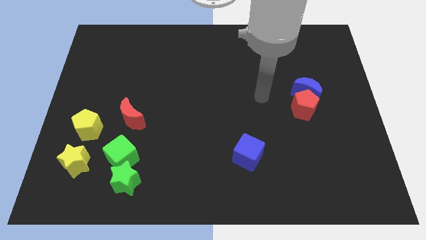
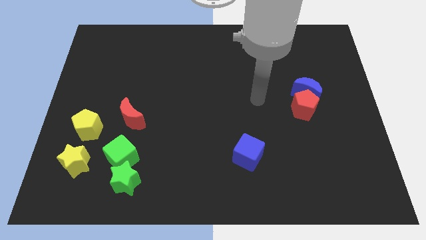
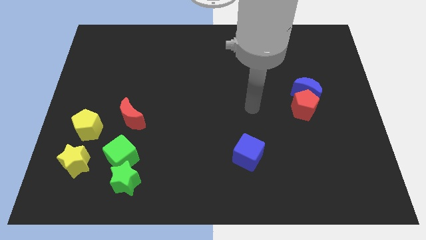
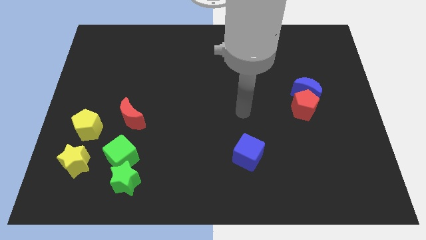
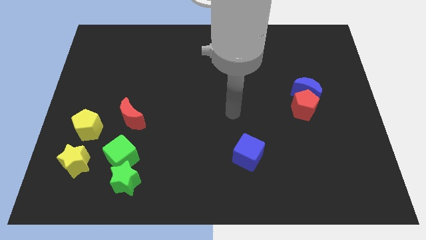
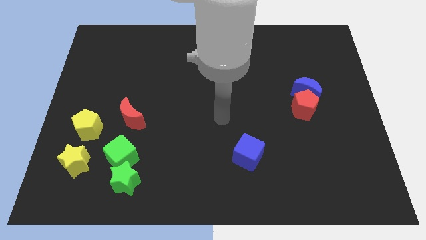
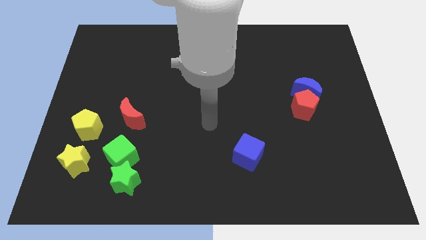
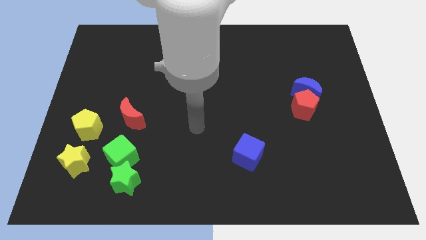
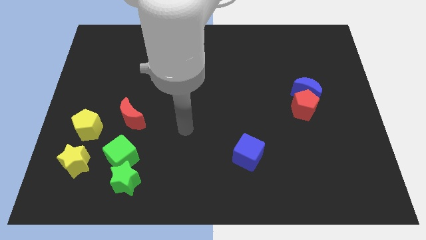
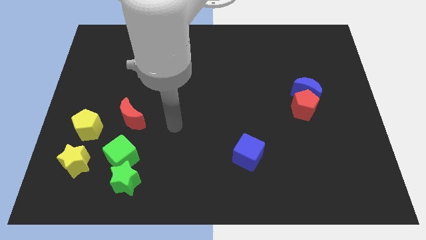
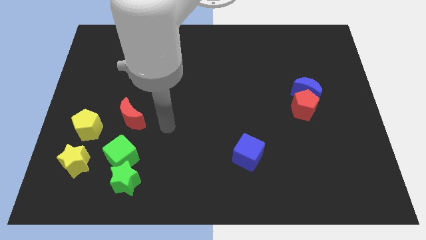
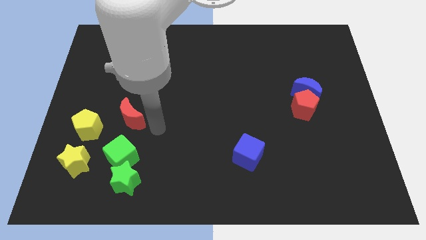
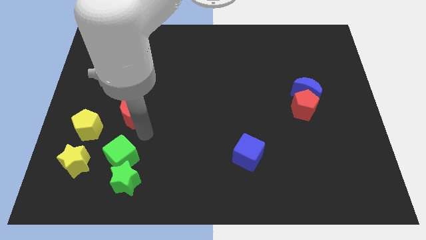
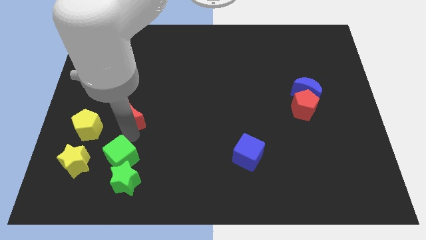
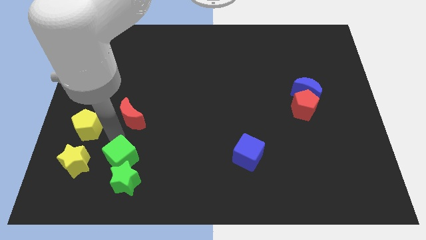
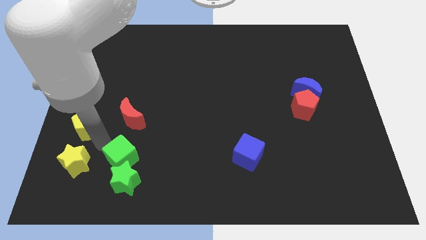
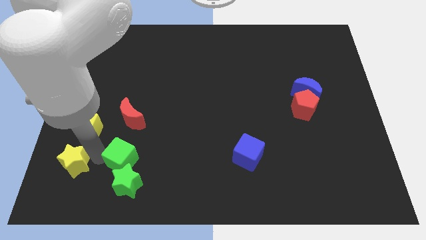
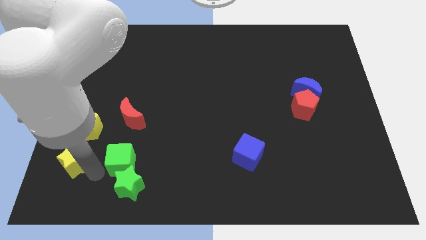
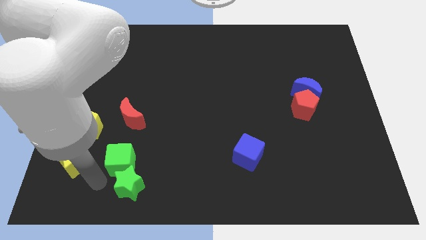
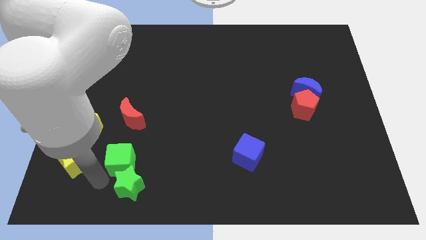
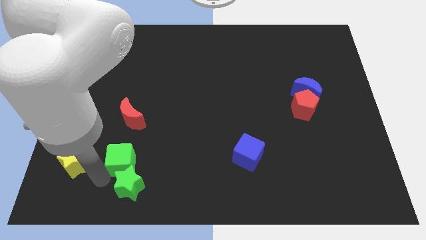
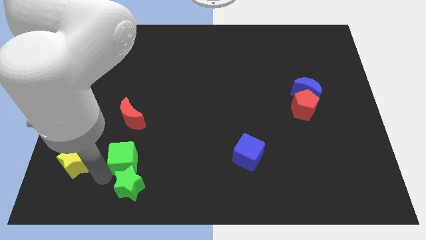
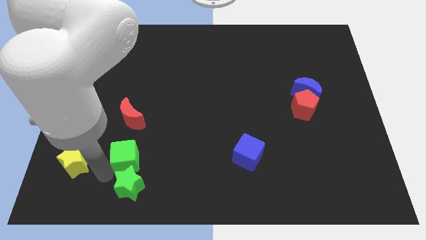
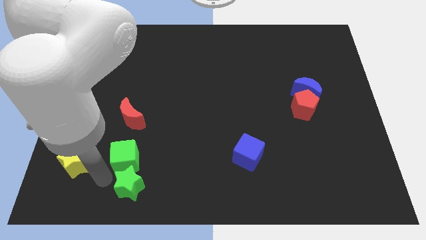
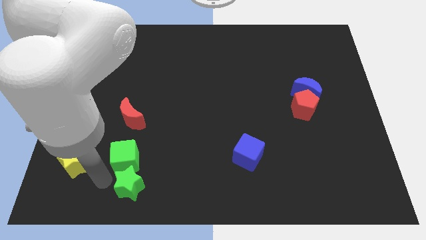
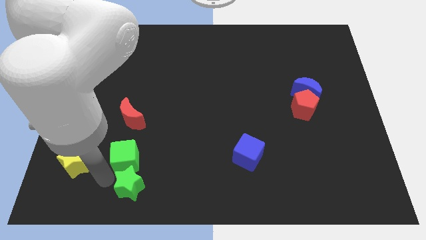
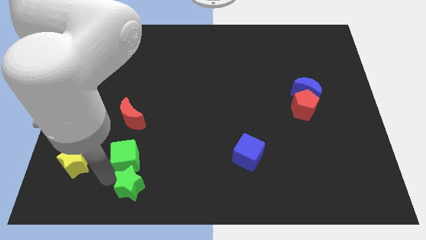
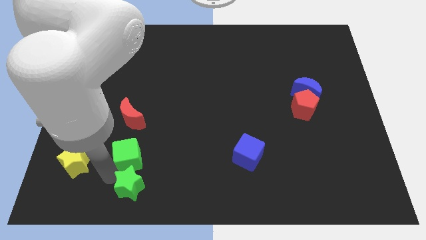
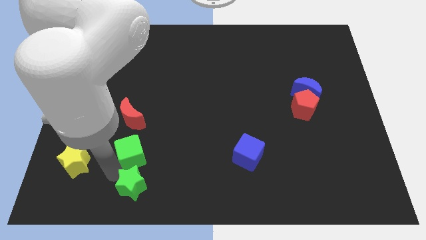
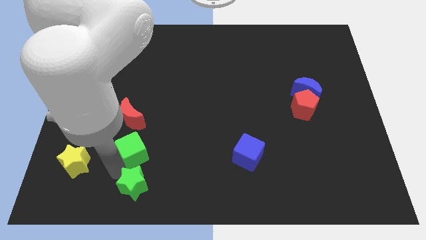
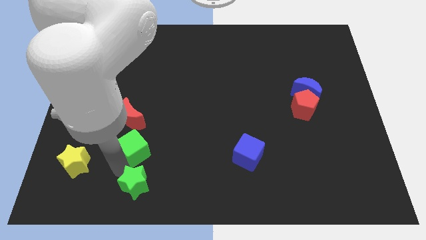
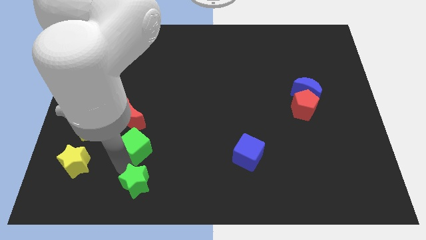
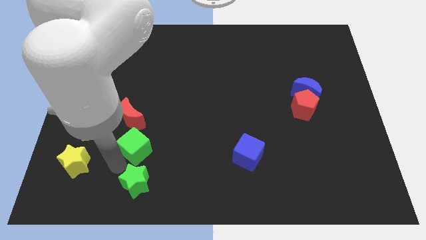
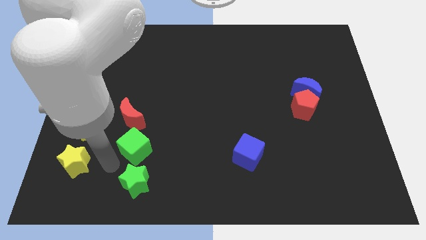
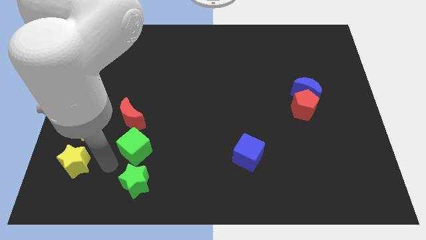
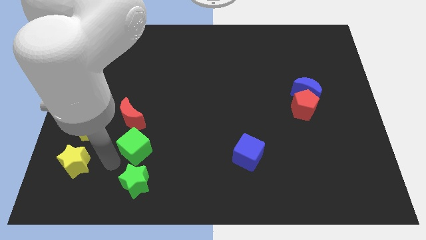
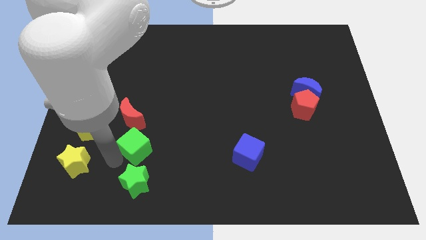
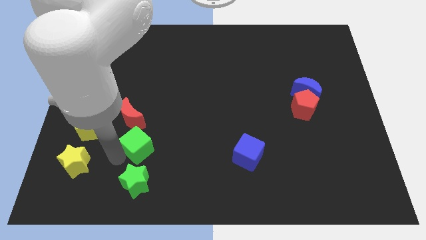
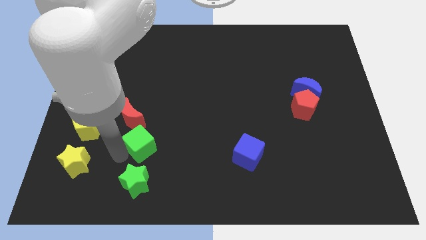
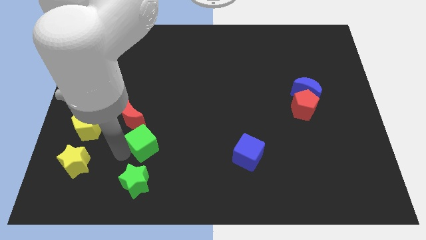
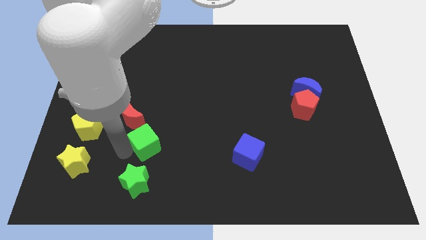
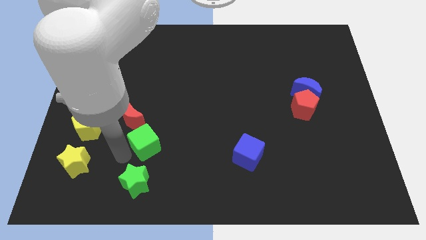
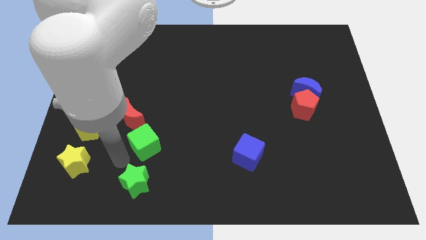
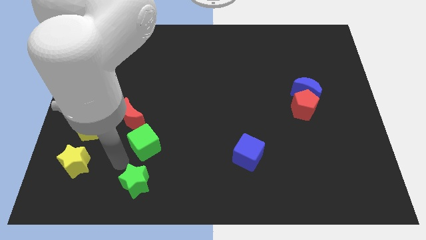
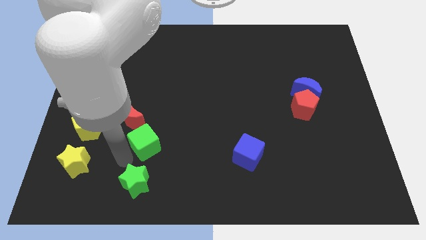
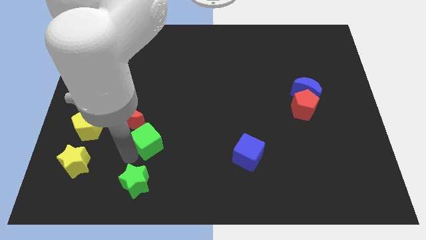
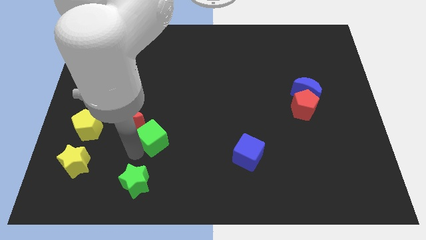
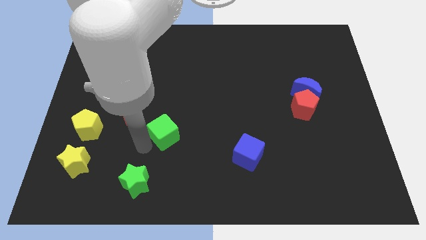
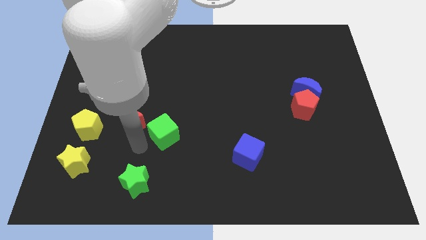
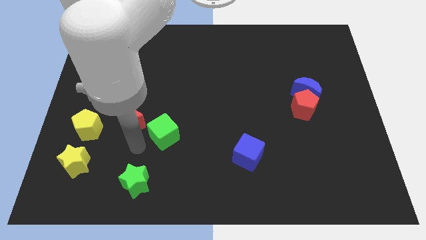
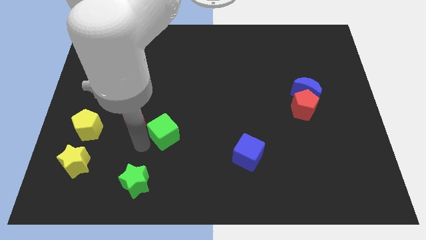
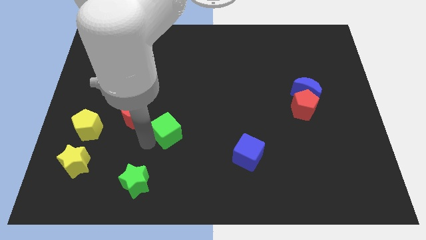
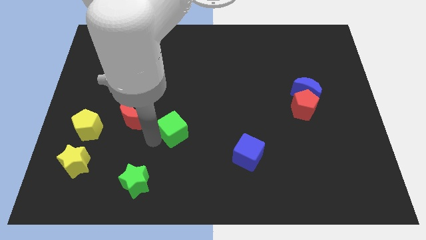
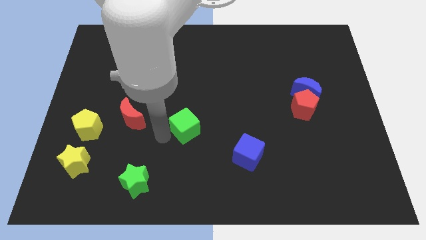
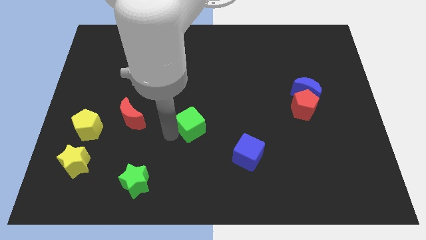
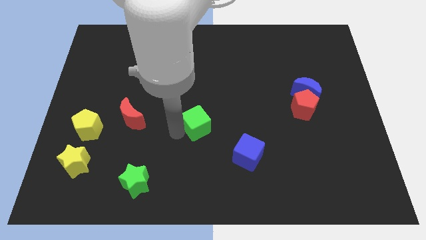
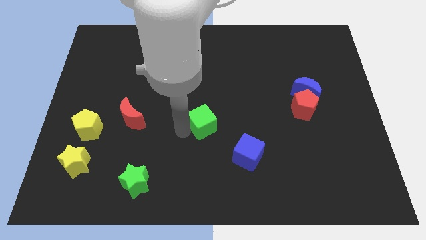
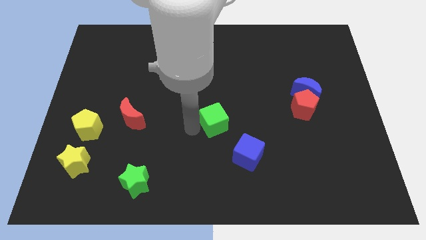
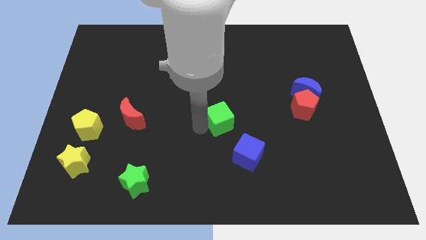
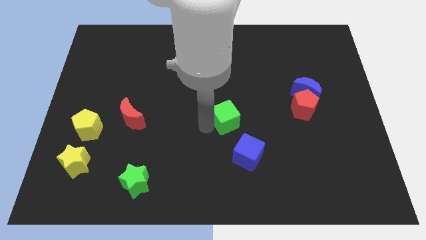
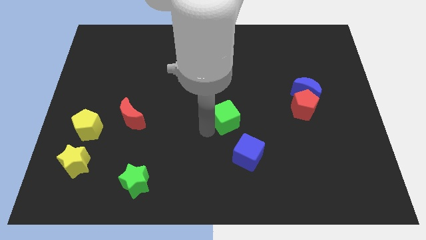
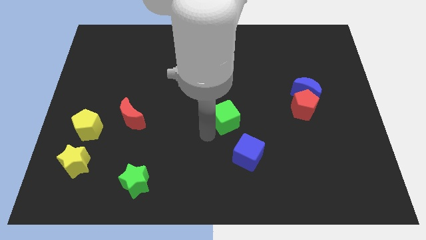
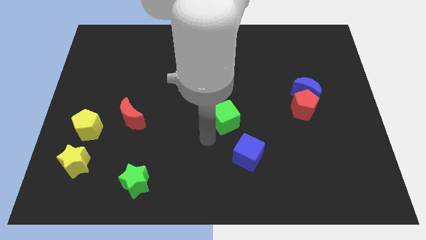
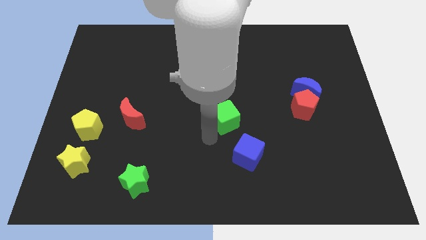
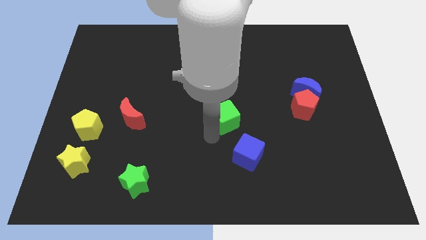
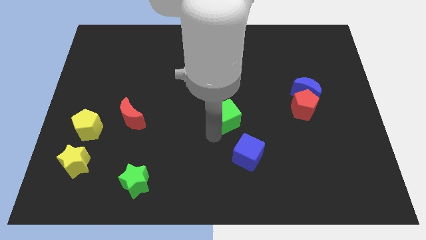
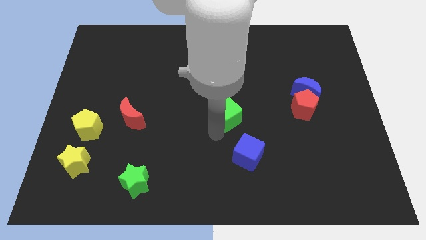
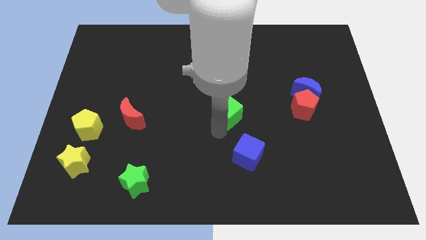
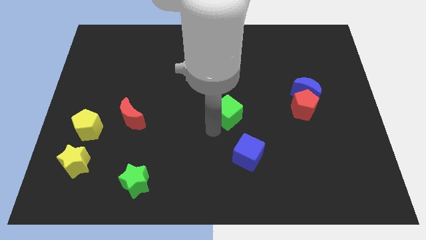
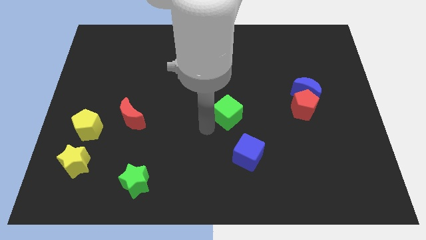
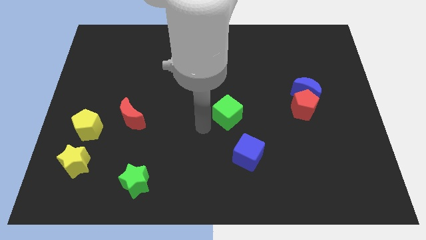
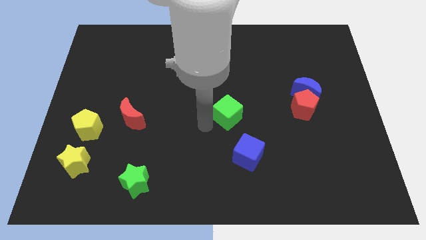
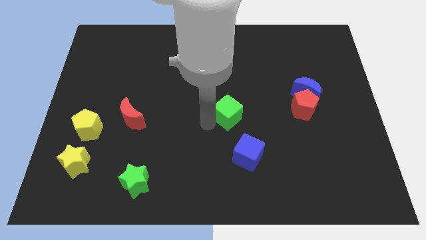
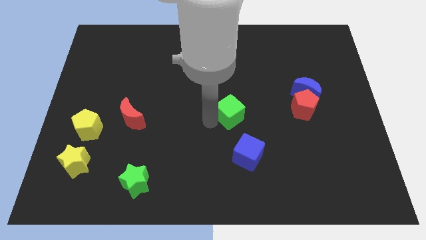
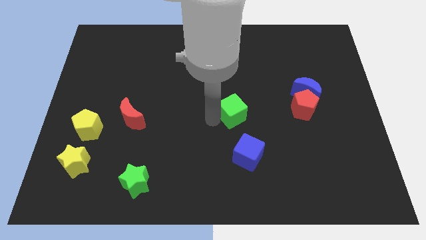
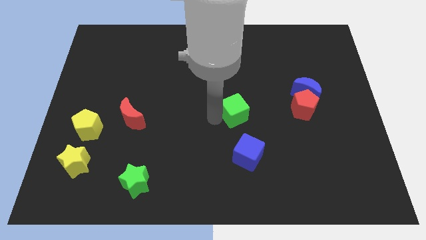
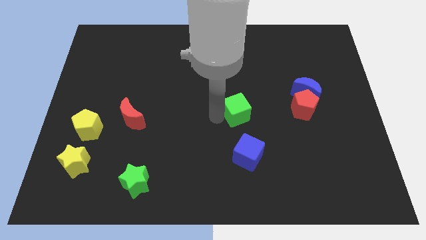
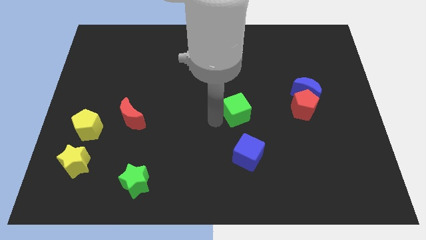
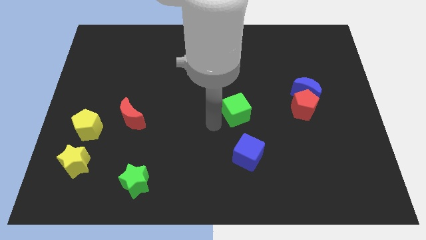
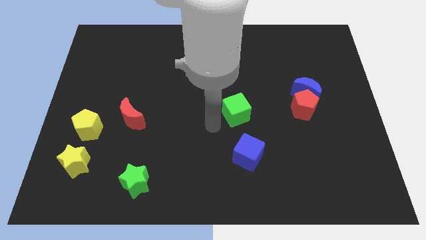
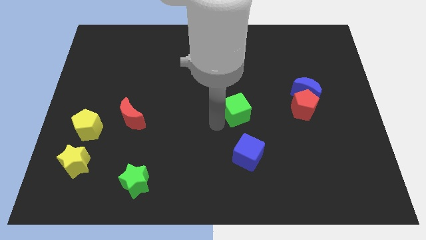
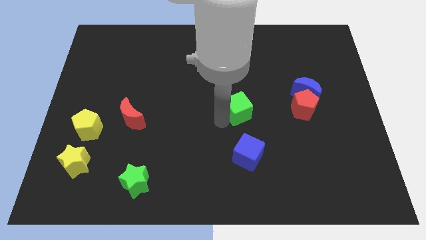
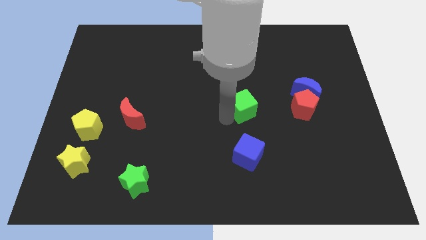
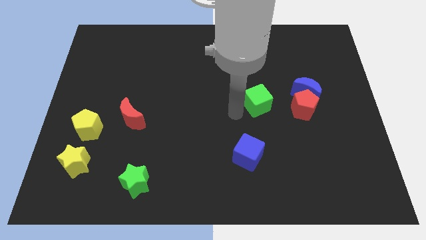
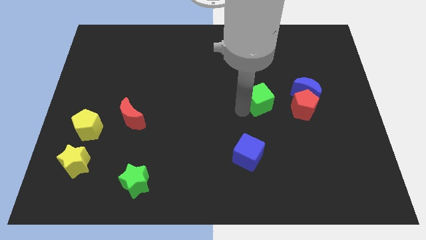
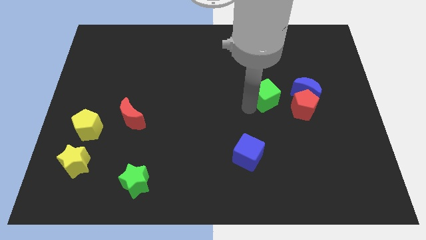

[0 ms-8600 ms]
slide the green cube diagonally up and to the left of the red pentagon
